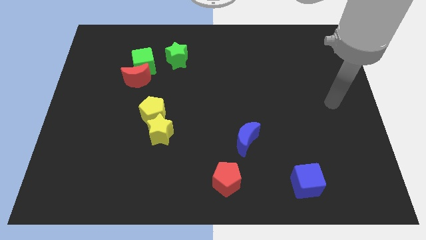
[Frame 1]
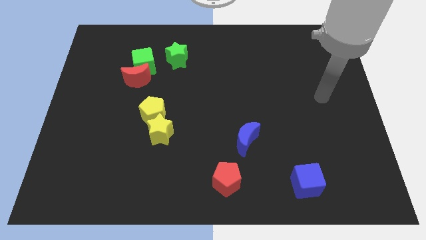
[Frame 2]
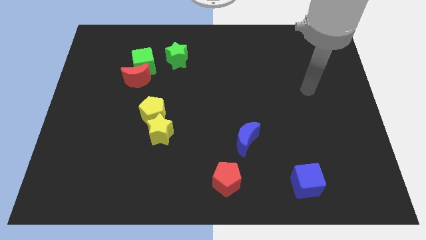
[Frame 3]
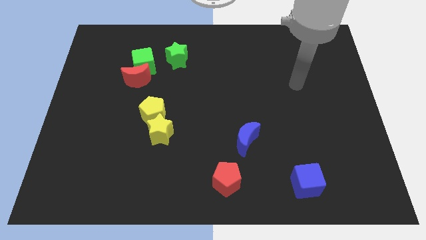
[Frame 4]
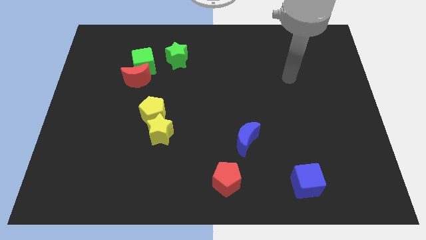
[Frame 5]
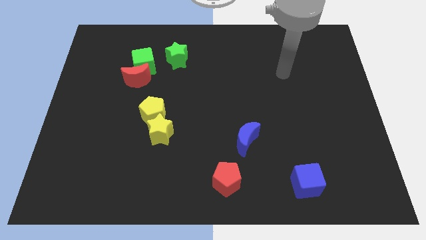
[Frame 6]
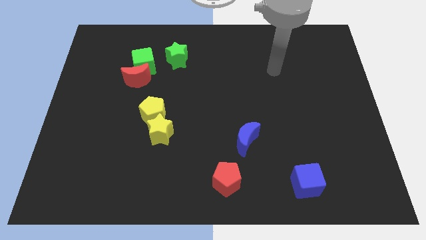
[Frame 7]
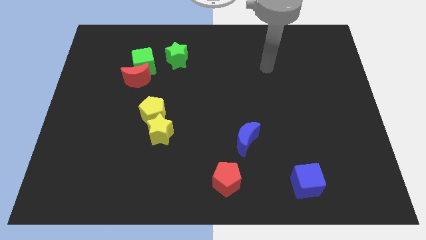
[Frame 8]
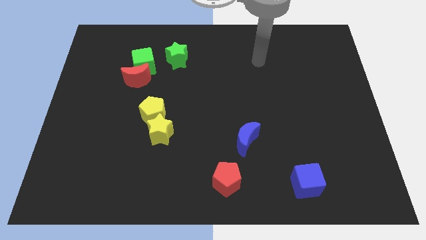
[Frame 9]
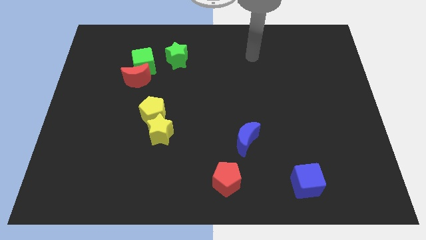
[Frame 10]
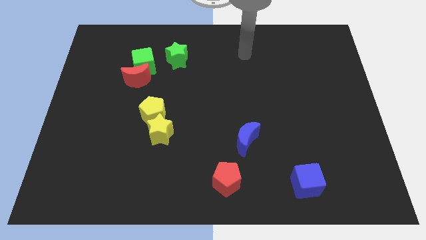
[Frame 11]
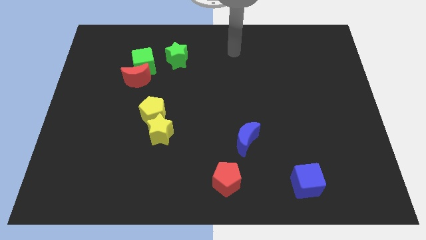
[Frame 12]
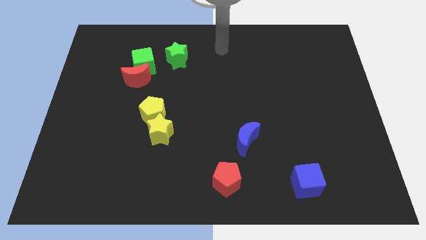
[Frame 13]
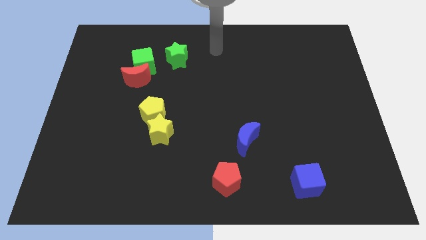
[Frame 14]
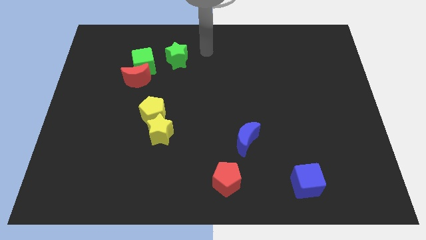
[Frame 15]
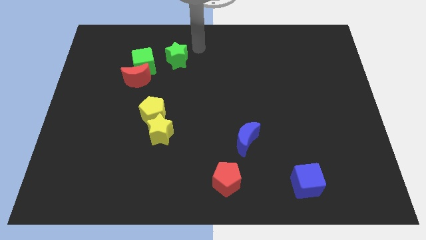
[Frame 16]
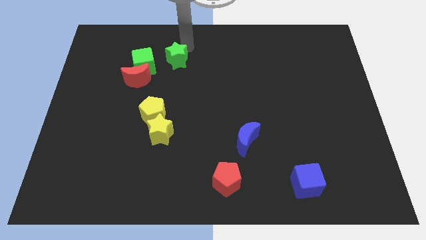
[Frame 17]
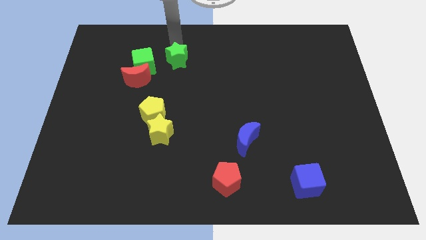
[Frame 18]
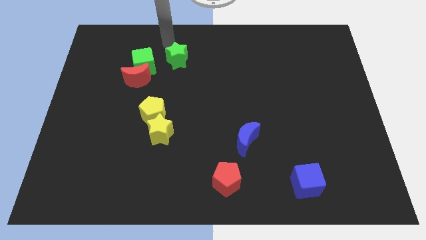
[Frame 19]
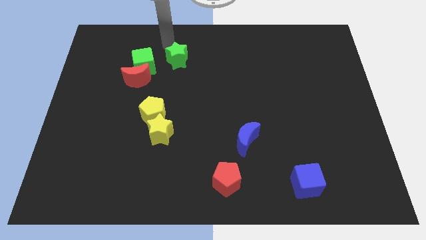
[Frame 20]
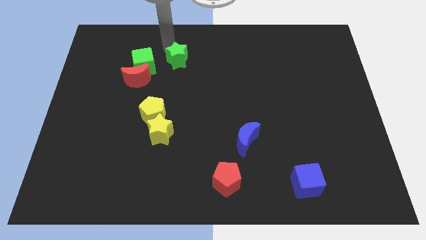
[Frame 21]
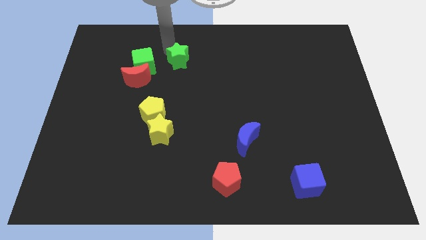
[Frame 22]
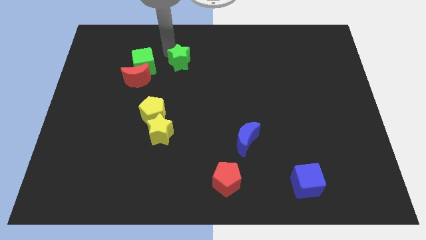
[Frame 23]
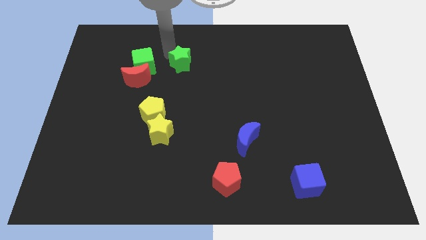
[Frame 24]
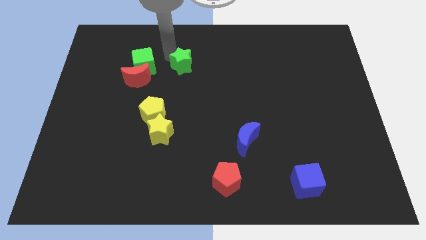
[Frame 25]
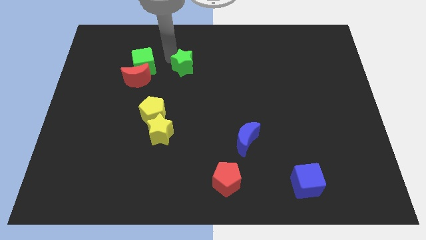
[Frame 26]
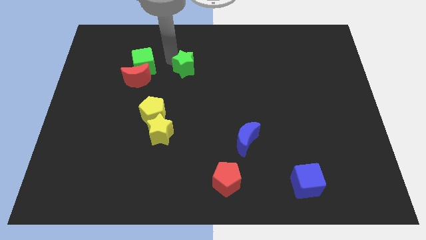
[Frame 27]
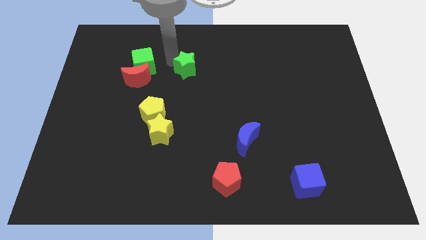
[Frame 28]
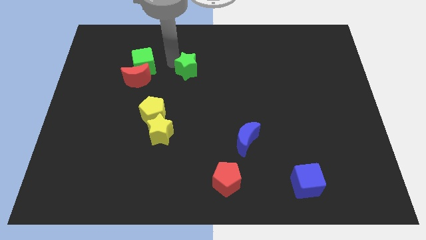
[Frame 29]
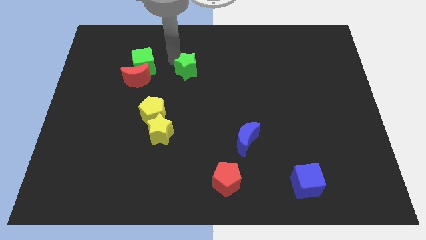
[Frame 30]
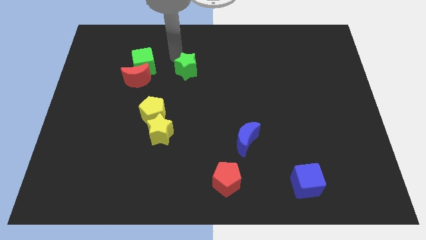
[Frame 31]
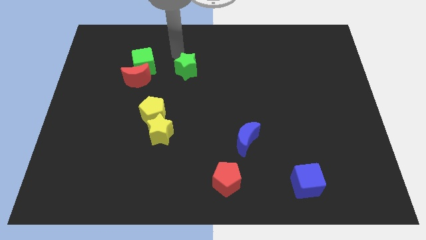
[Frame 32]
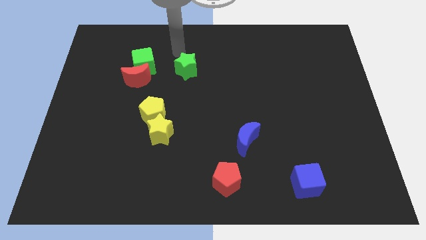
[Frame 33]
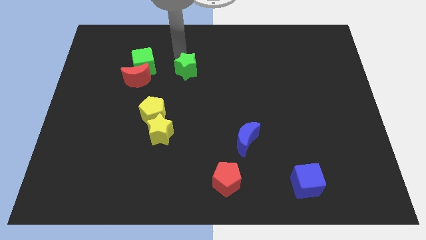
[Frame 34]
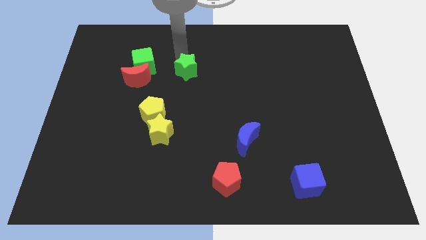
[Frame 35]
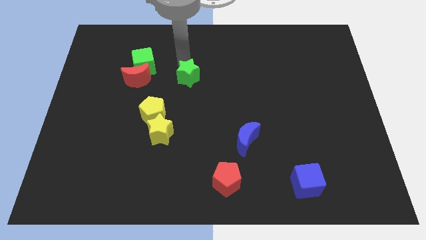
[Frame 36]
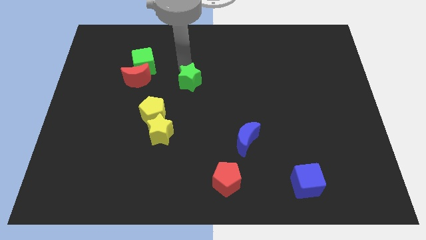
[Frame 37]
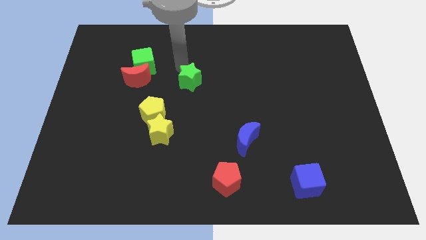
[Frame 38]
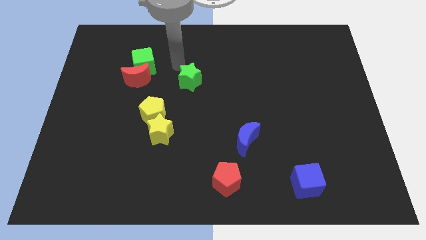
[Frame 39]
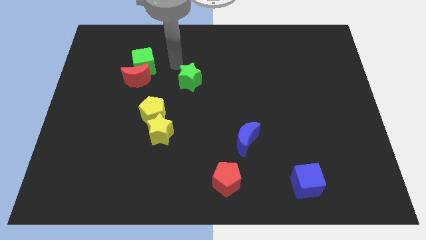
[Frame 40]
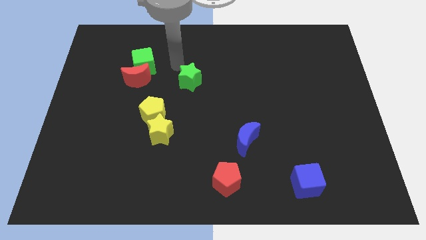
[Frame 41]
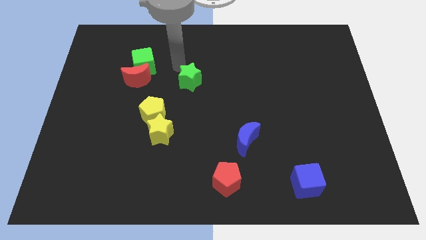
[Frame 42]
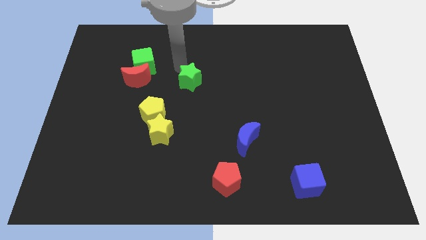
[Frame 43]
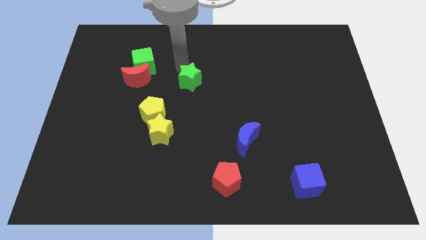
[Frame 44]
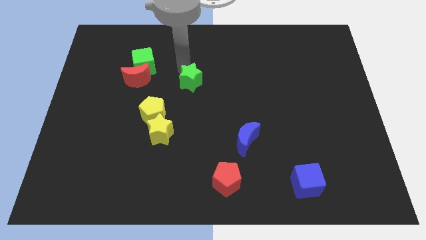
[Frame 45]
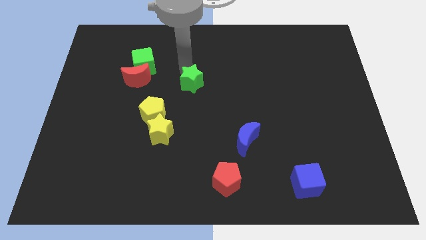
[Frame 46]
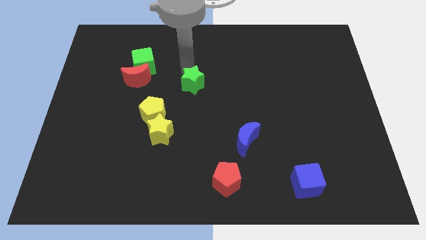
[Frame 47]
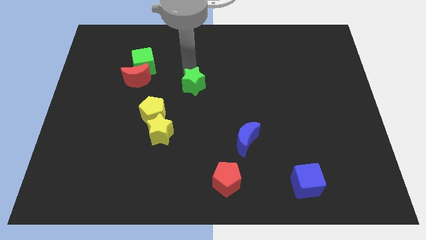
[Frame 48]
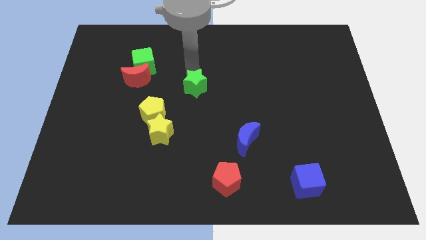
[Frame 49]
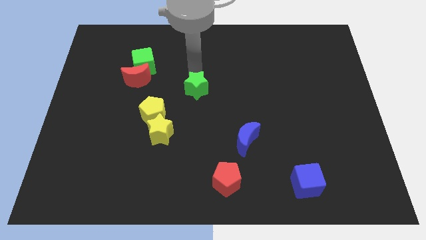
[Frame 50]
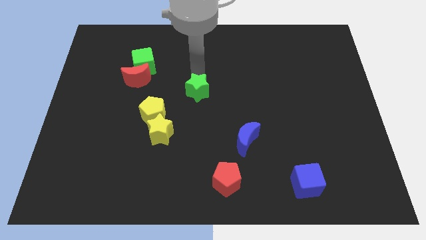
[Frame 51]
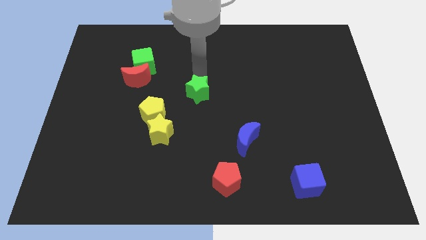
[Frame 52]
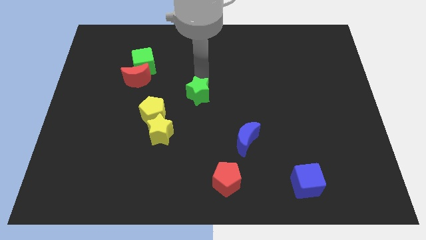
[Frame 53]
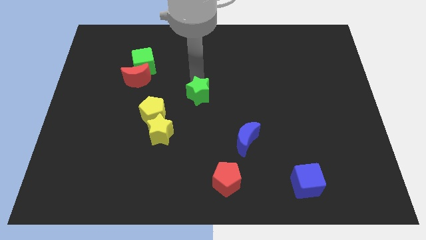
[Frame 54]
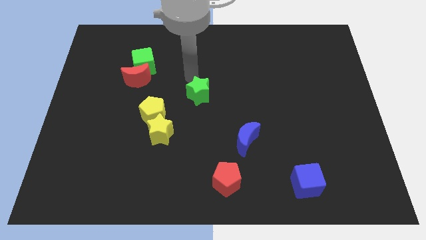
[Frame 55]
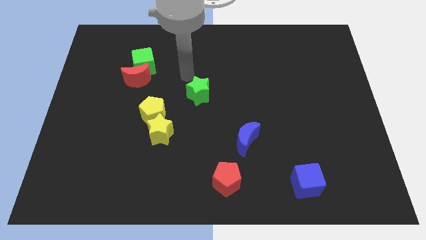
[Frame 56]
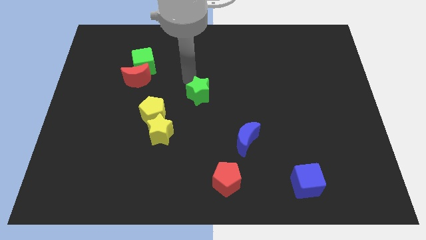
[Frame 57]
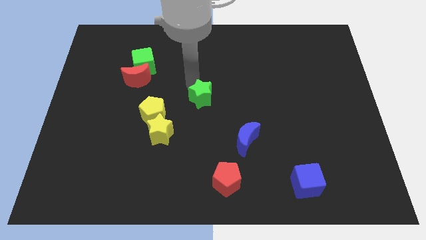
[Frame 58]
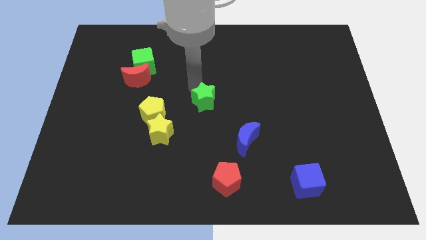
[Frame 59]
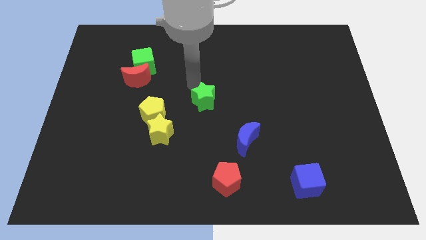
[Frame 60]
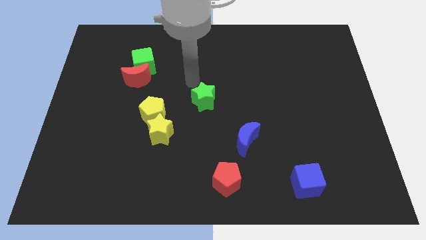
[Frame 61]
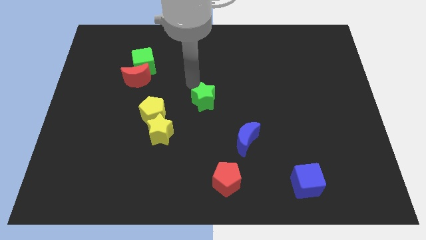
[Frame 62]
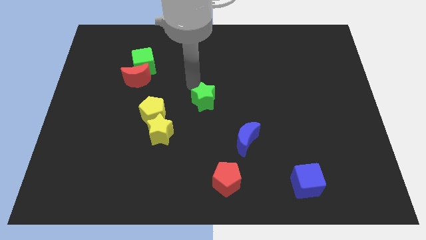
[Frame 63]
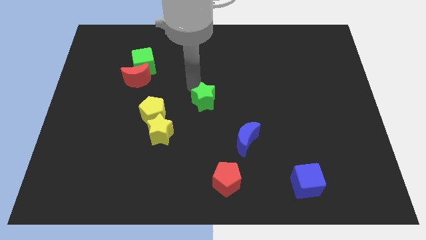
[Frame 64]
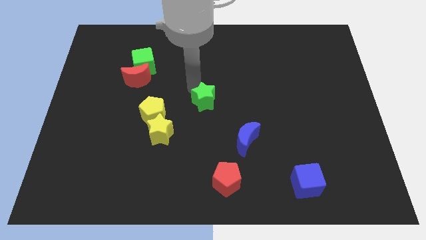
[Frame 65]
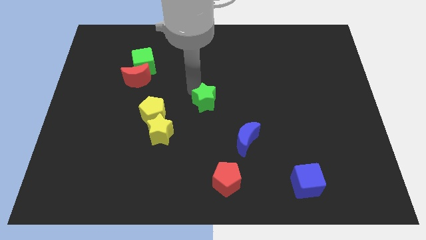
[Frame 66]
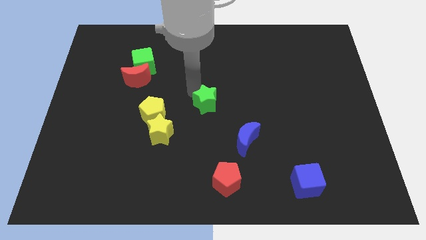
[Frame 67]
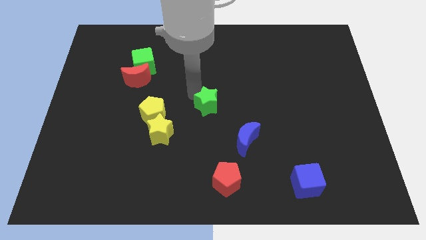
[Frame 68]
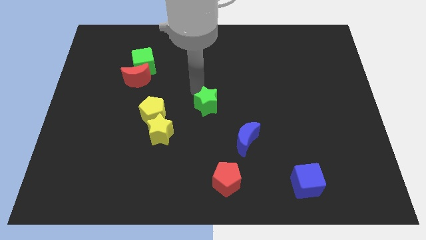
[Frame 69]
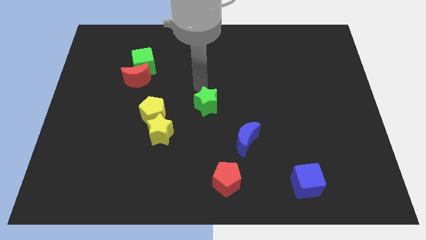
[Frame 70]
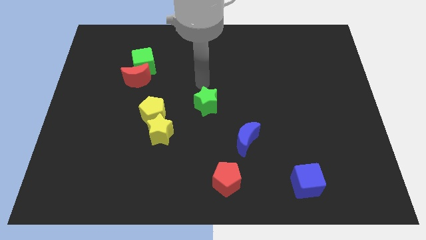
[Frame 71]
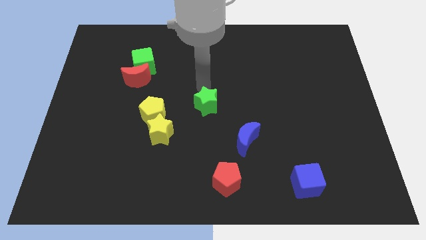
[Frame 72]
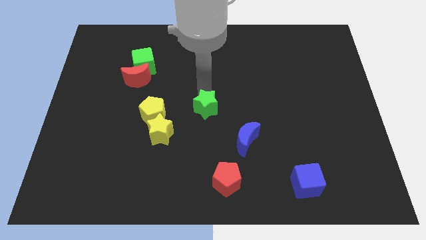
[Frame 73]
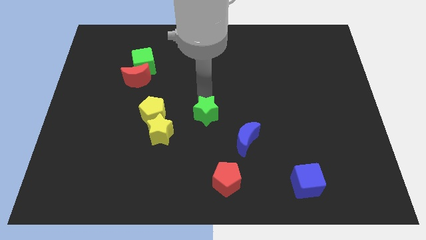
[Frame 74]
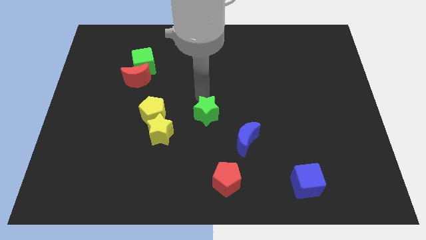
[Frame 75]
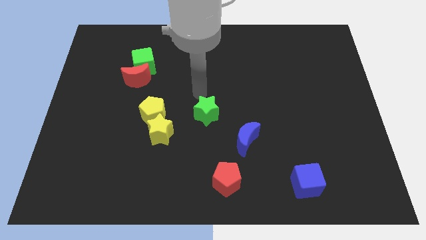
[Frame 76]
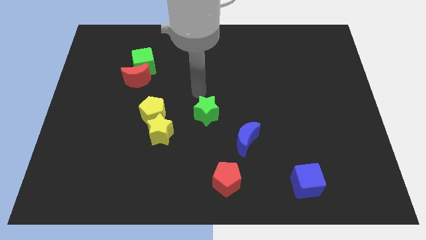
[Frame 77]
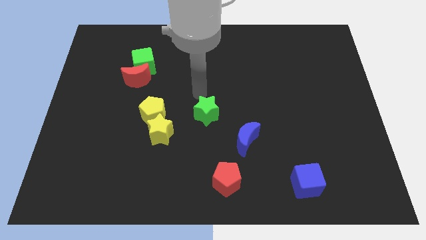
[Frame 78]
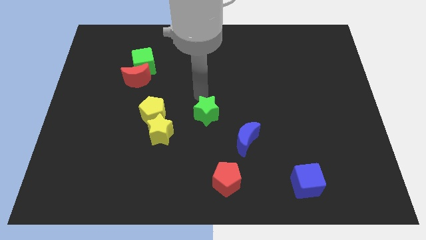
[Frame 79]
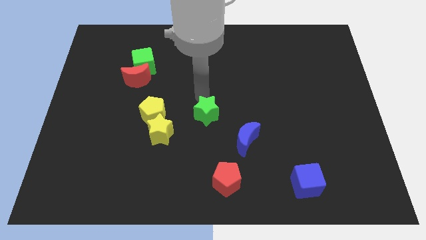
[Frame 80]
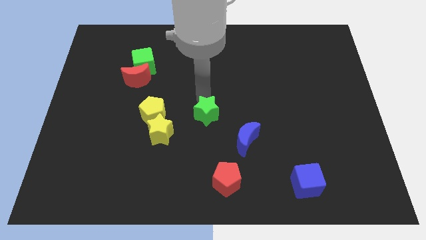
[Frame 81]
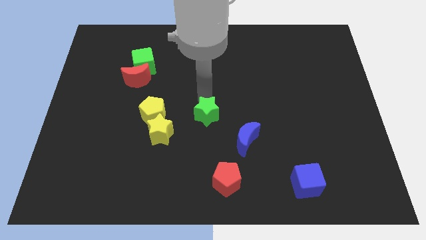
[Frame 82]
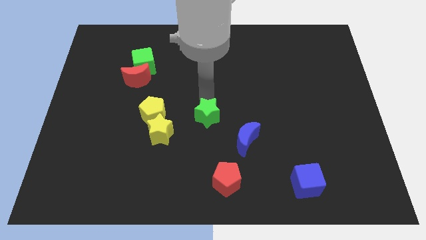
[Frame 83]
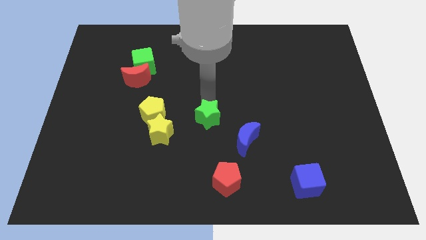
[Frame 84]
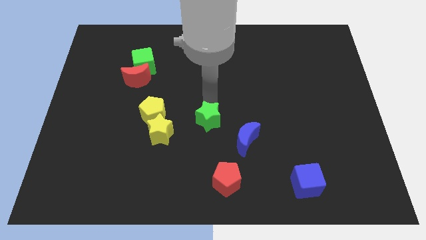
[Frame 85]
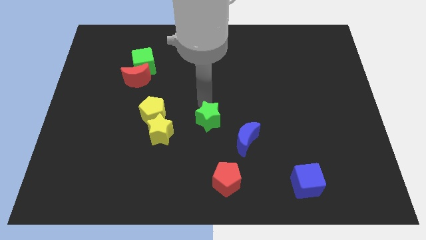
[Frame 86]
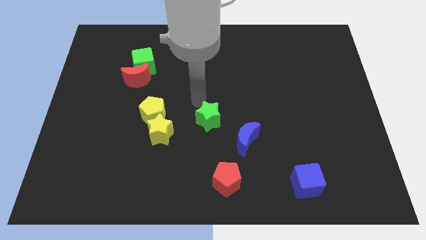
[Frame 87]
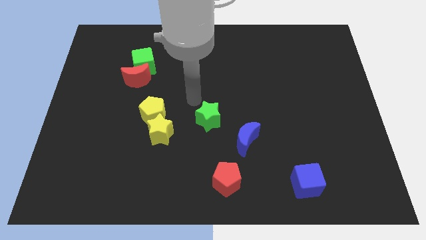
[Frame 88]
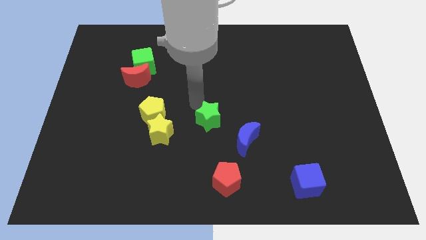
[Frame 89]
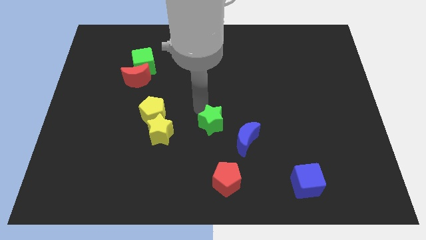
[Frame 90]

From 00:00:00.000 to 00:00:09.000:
push the green star to the top of the red pentagon
